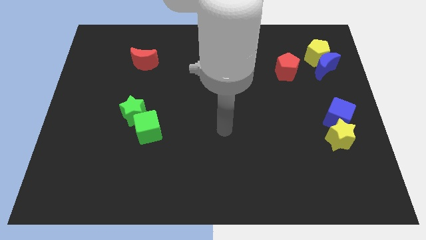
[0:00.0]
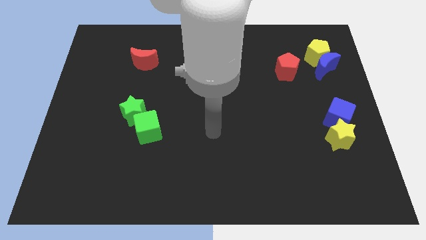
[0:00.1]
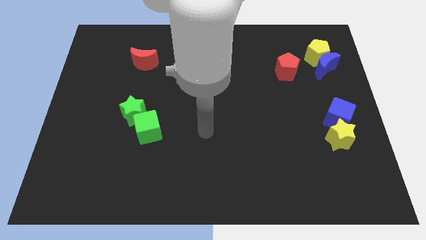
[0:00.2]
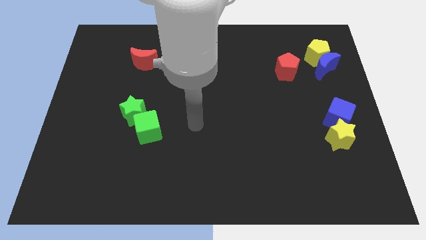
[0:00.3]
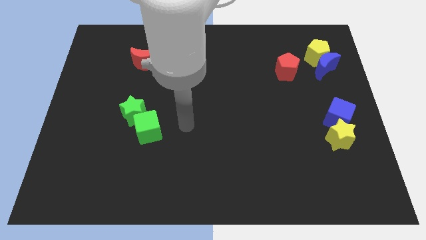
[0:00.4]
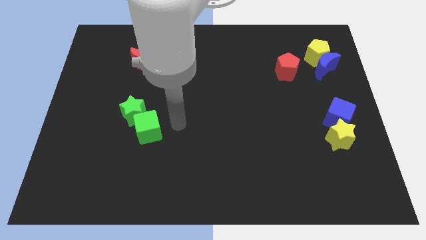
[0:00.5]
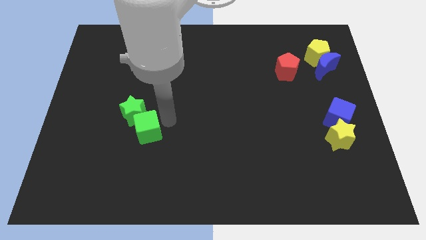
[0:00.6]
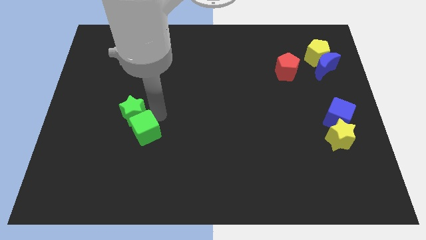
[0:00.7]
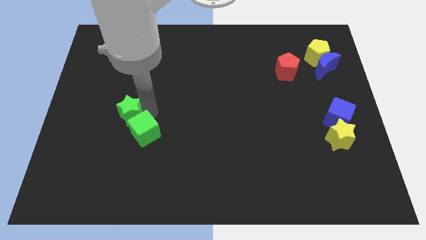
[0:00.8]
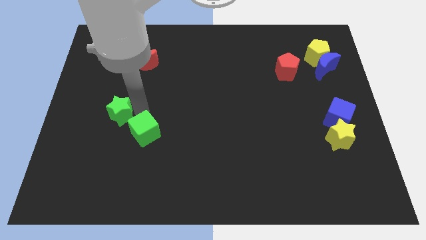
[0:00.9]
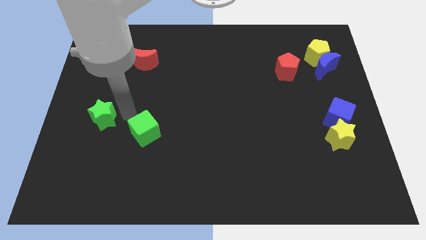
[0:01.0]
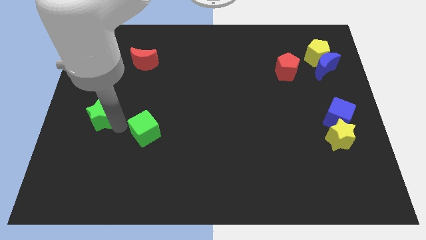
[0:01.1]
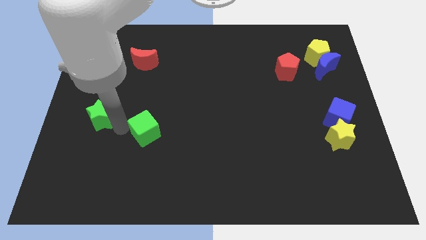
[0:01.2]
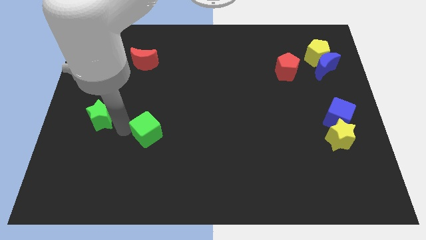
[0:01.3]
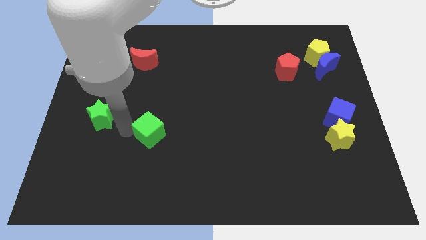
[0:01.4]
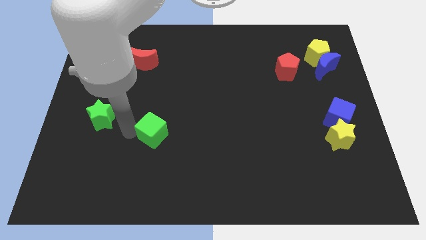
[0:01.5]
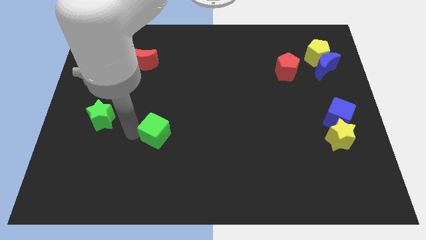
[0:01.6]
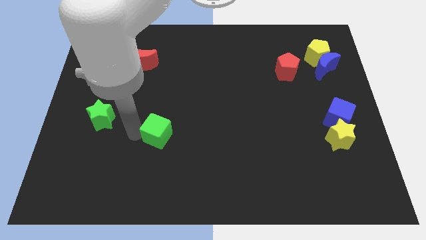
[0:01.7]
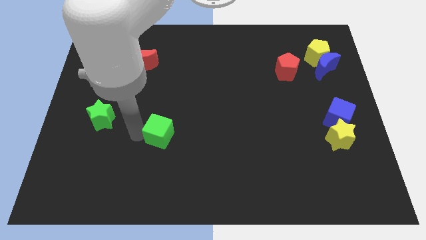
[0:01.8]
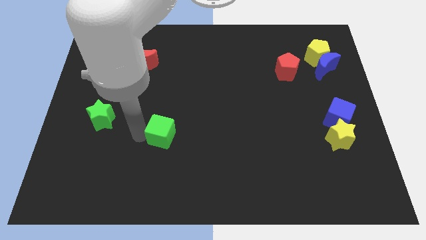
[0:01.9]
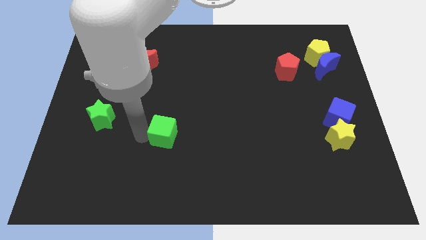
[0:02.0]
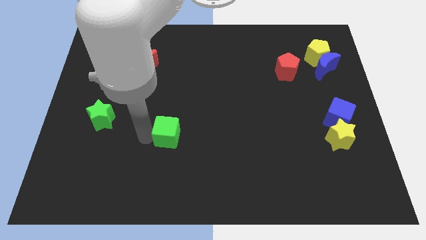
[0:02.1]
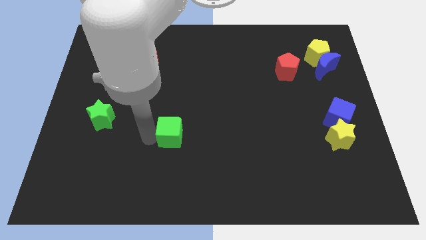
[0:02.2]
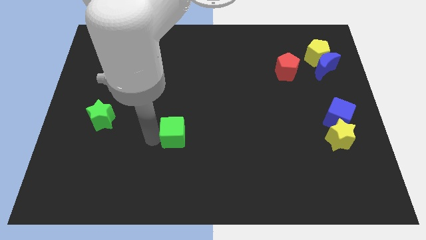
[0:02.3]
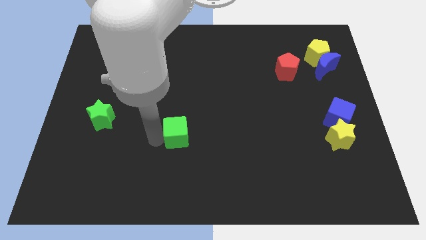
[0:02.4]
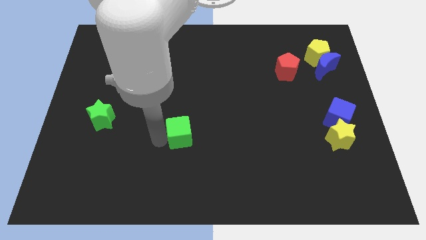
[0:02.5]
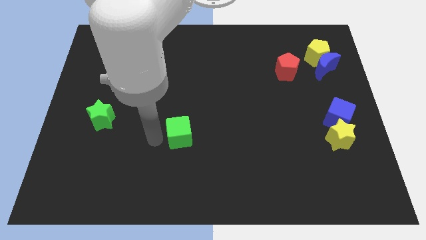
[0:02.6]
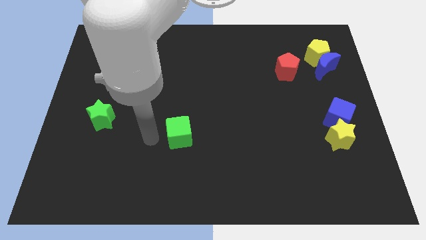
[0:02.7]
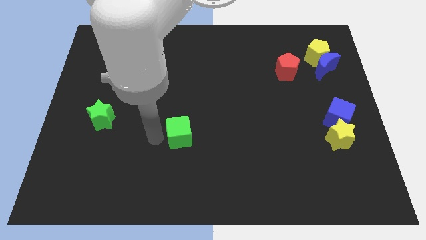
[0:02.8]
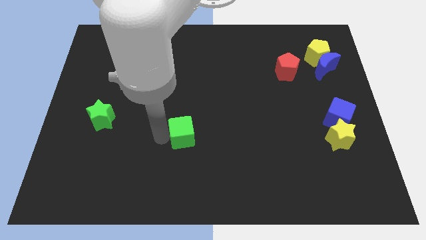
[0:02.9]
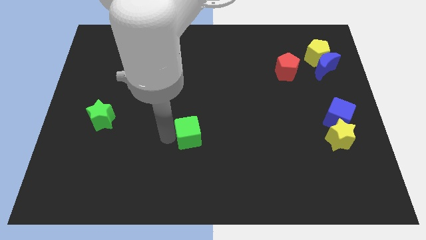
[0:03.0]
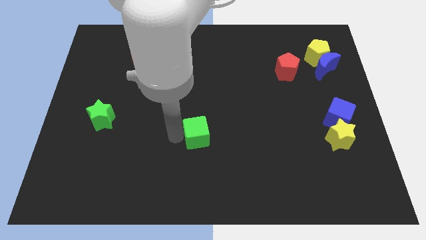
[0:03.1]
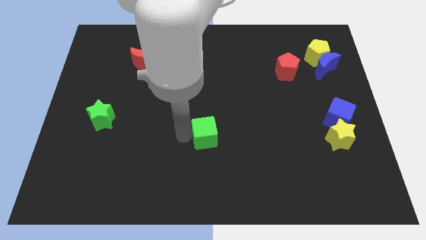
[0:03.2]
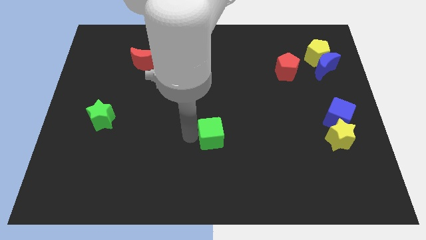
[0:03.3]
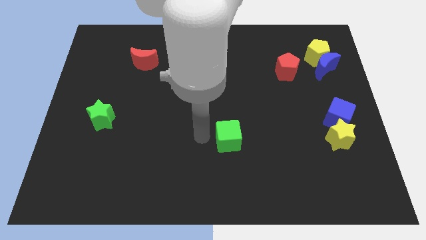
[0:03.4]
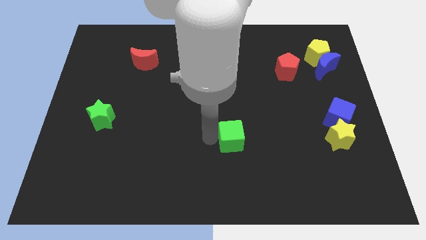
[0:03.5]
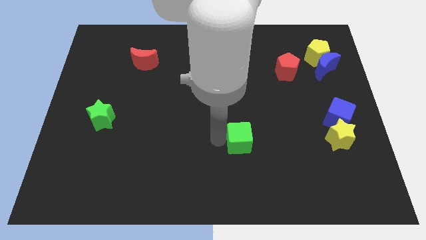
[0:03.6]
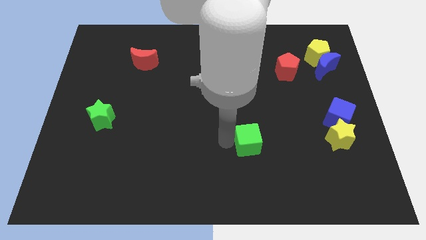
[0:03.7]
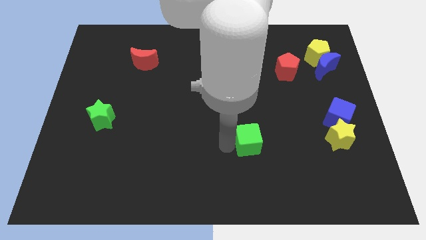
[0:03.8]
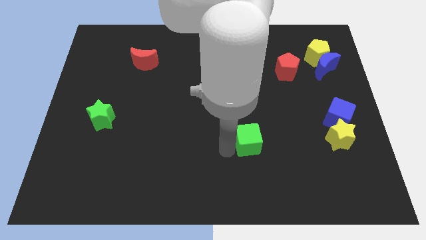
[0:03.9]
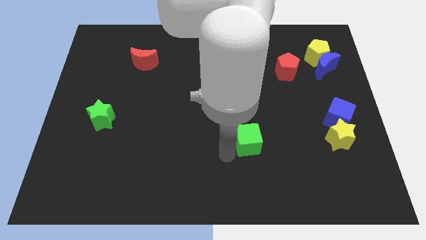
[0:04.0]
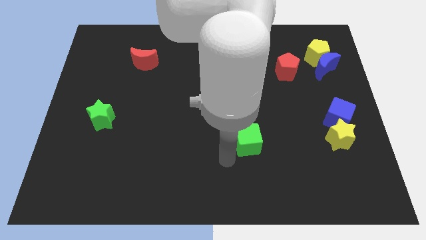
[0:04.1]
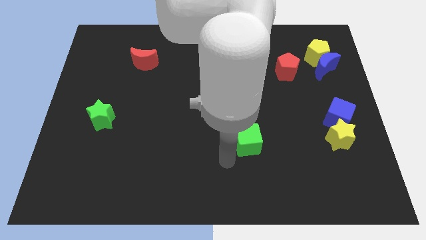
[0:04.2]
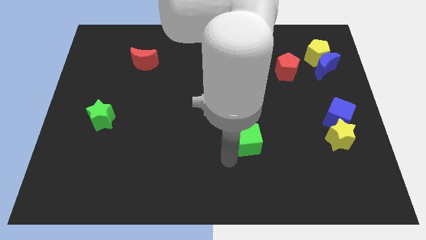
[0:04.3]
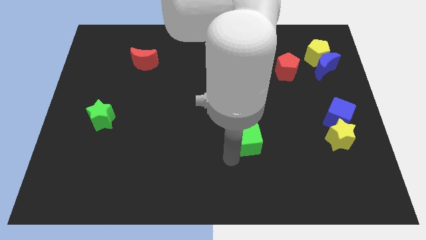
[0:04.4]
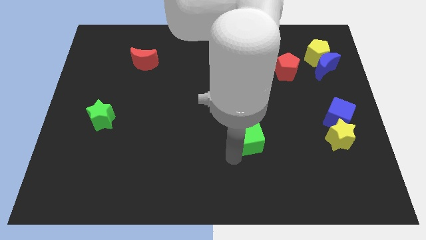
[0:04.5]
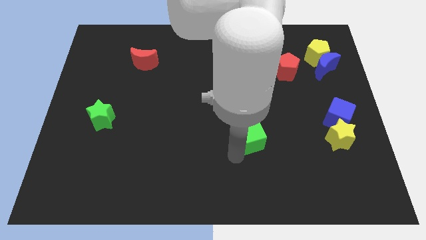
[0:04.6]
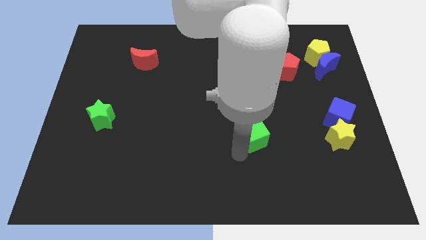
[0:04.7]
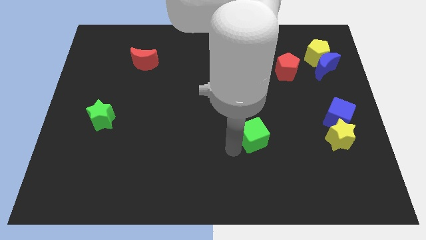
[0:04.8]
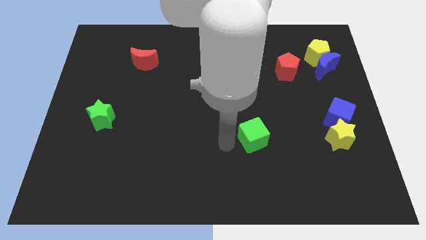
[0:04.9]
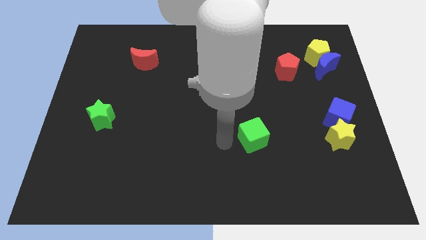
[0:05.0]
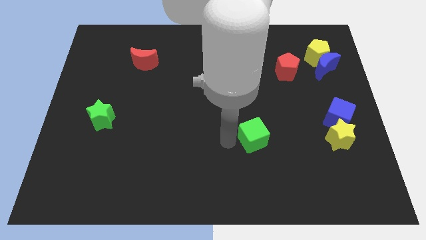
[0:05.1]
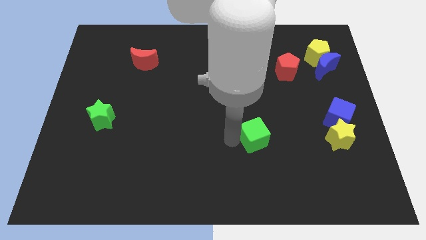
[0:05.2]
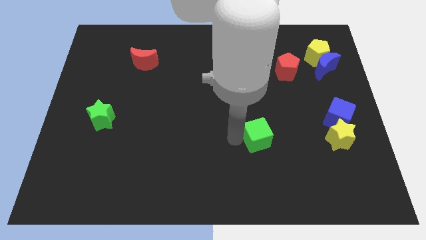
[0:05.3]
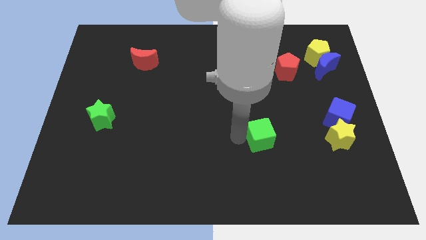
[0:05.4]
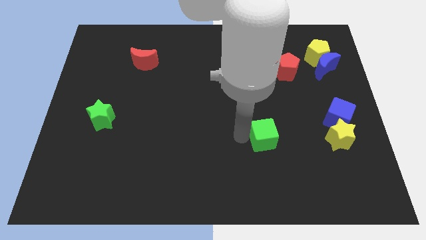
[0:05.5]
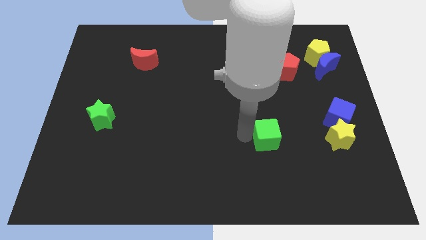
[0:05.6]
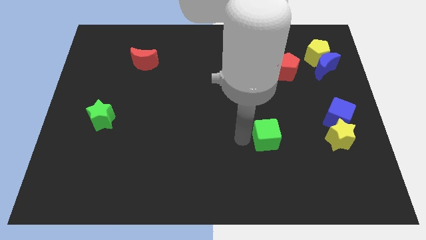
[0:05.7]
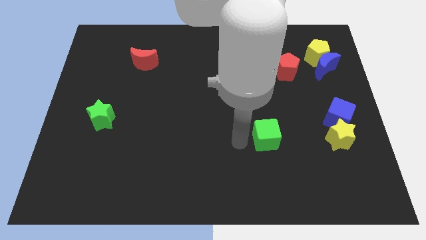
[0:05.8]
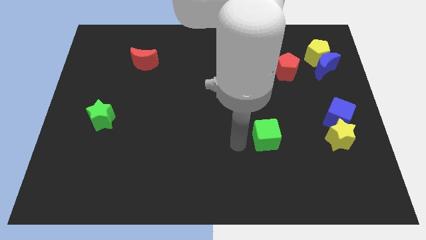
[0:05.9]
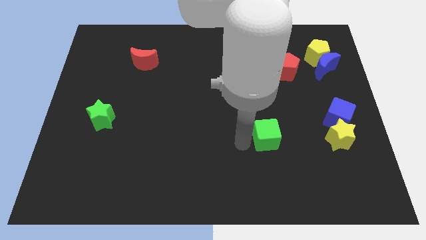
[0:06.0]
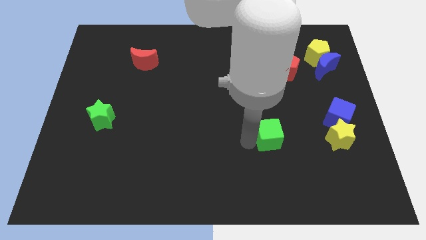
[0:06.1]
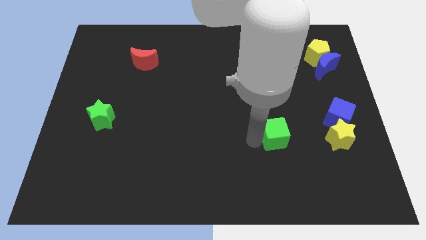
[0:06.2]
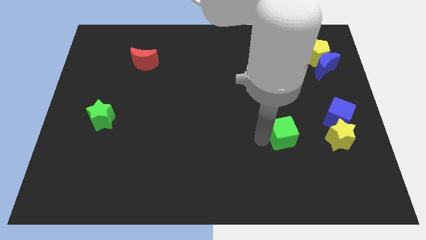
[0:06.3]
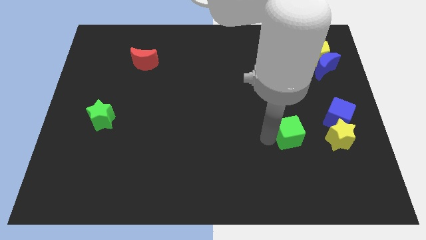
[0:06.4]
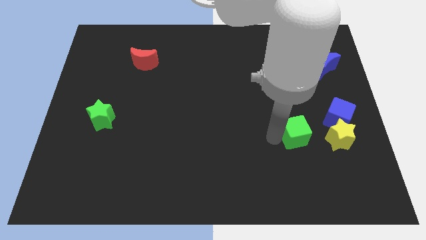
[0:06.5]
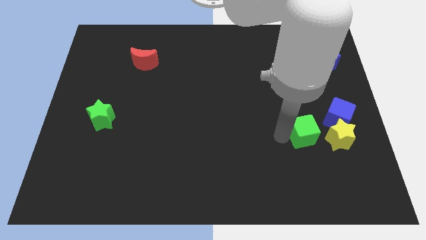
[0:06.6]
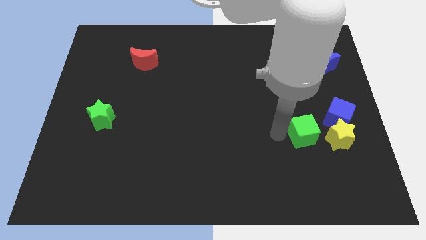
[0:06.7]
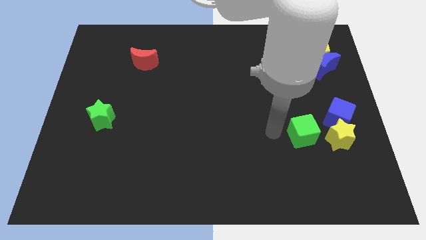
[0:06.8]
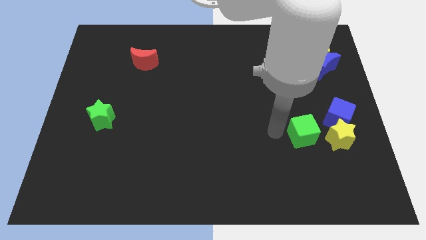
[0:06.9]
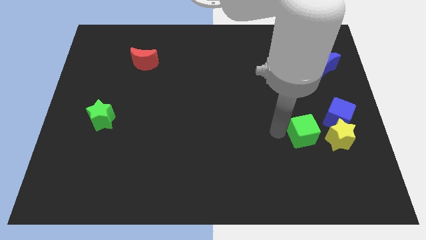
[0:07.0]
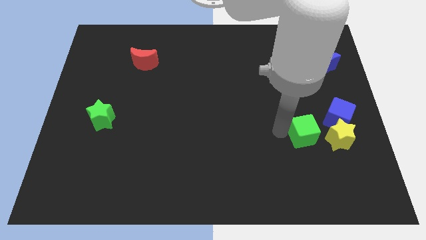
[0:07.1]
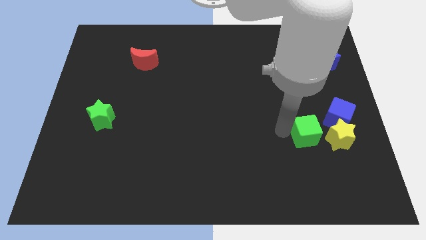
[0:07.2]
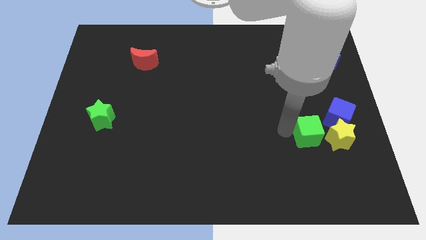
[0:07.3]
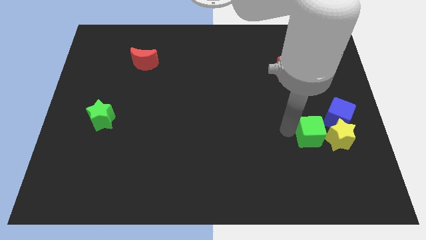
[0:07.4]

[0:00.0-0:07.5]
put the green cube next to the yellow star
